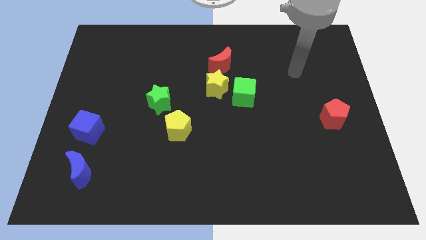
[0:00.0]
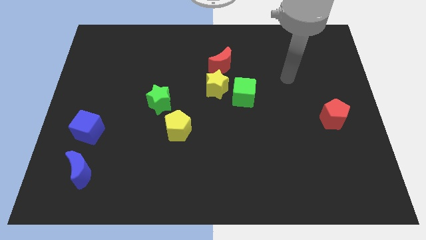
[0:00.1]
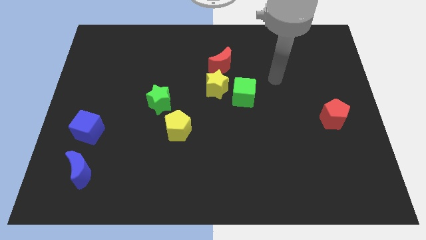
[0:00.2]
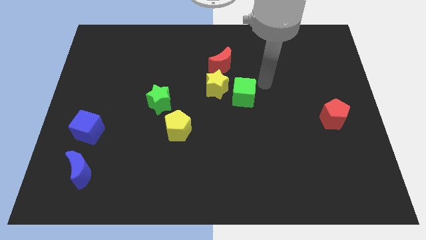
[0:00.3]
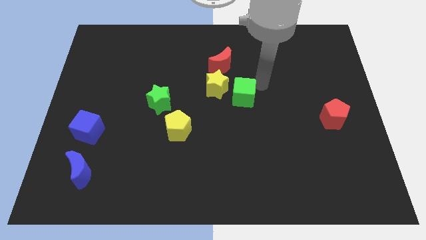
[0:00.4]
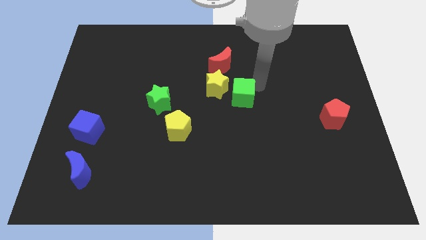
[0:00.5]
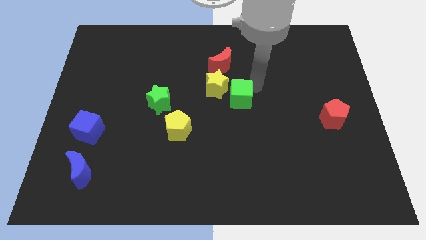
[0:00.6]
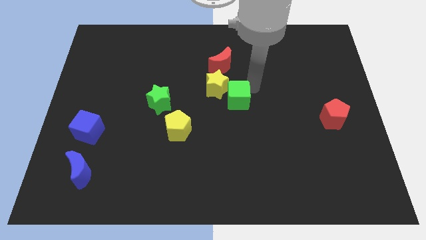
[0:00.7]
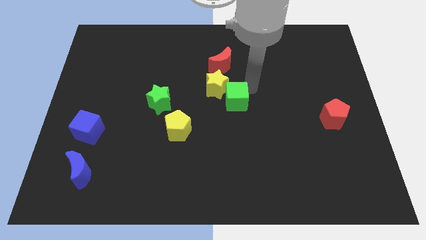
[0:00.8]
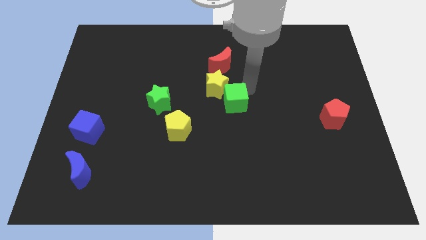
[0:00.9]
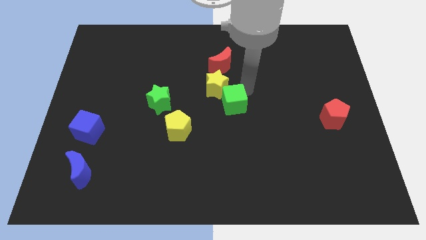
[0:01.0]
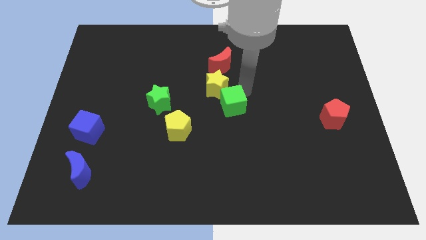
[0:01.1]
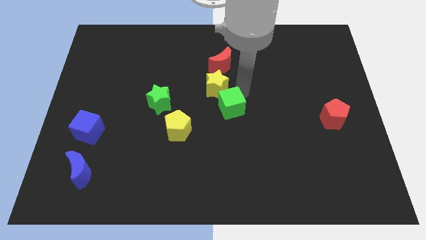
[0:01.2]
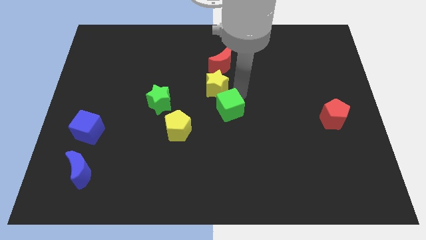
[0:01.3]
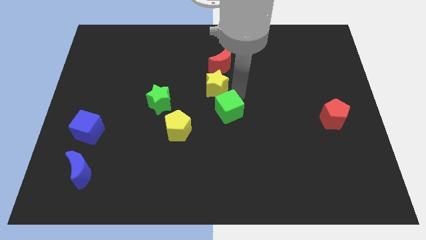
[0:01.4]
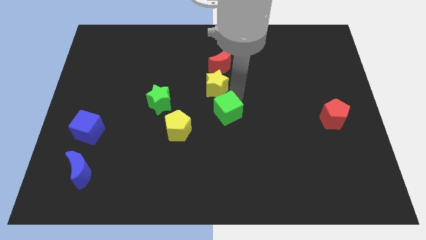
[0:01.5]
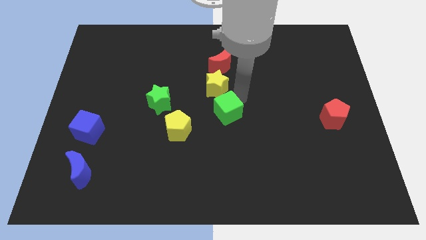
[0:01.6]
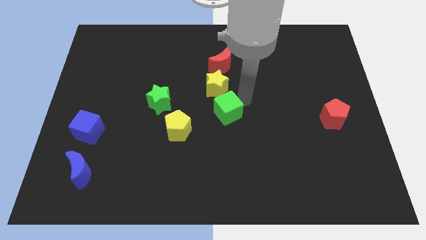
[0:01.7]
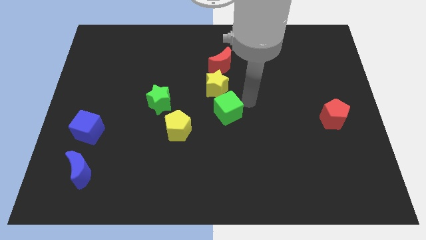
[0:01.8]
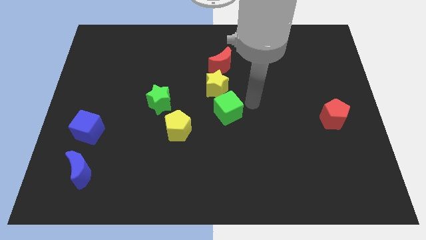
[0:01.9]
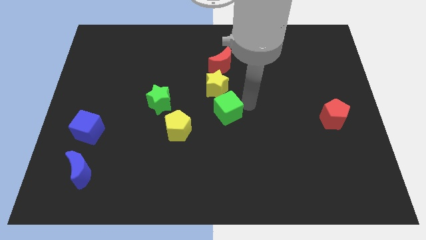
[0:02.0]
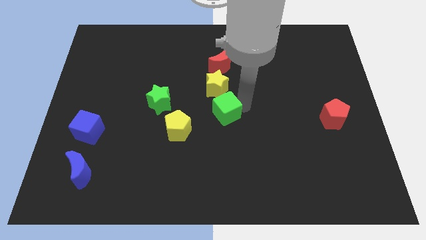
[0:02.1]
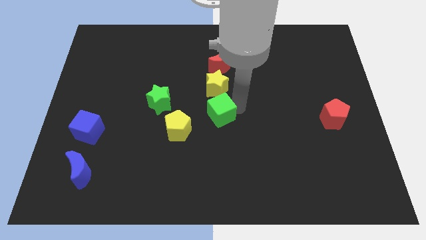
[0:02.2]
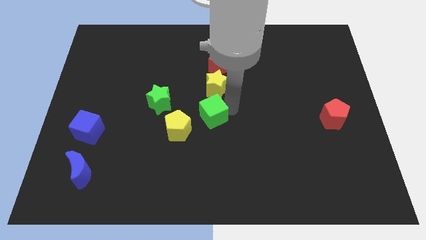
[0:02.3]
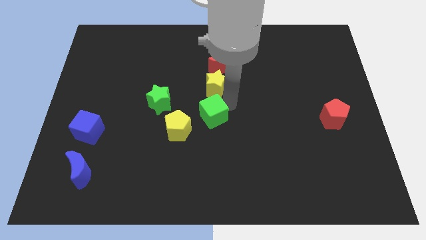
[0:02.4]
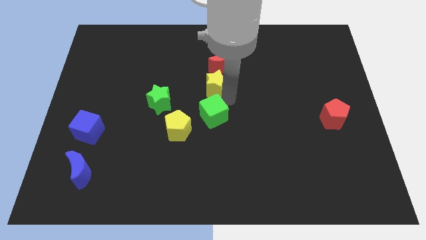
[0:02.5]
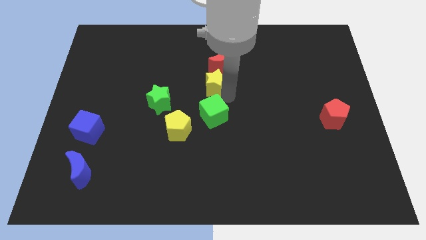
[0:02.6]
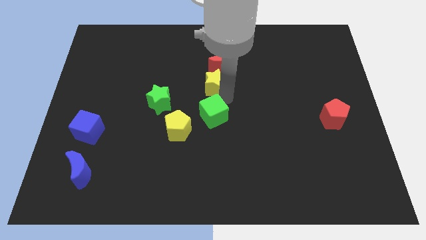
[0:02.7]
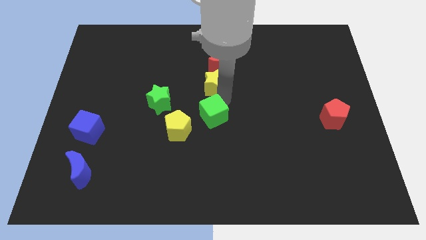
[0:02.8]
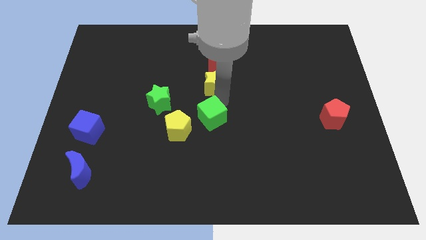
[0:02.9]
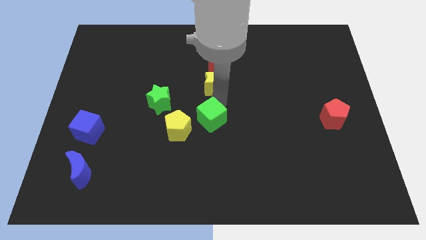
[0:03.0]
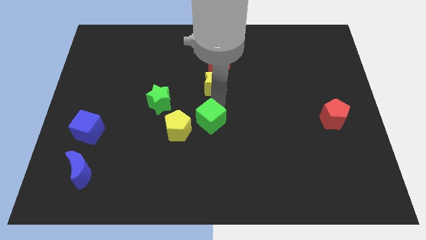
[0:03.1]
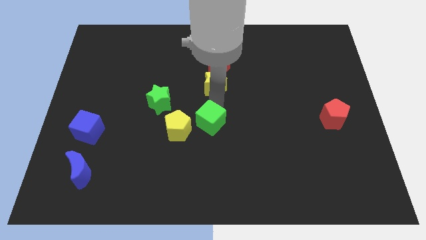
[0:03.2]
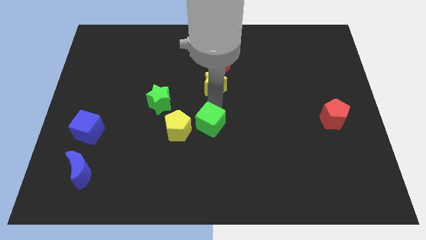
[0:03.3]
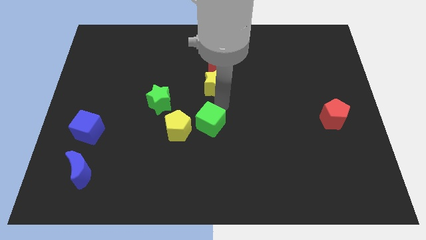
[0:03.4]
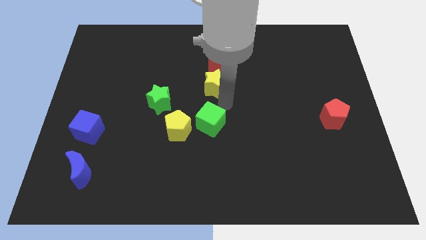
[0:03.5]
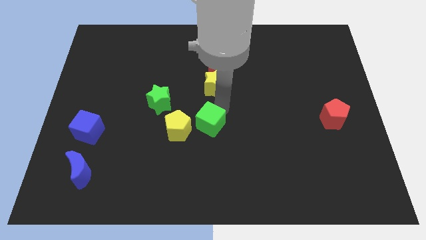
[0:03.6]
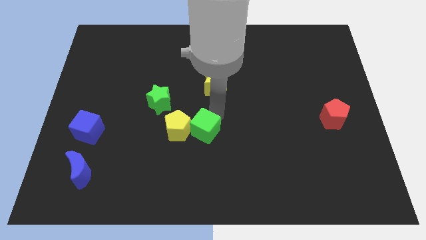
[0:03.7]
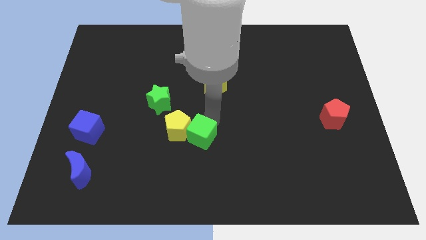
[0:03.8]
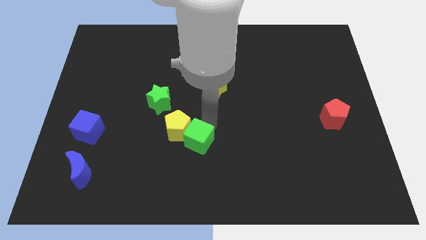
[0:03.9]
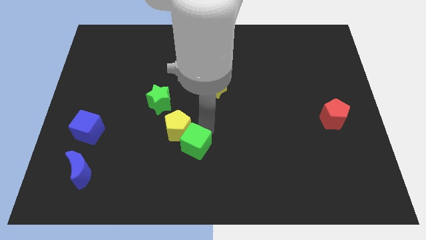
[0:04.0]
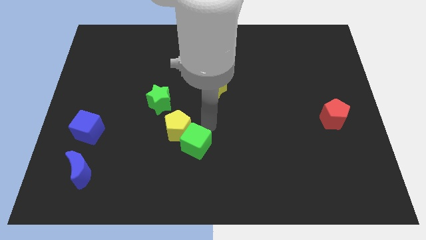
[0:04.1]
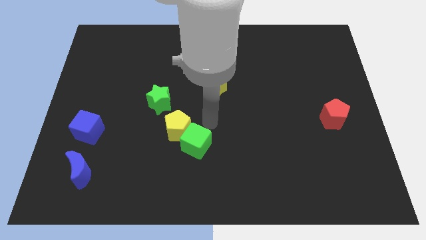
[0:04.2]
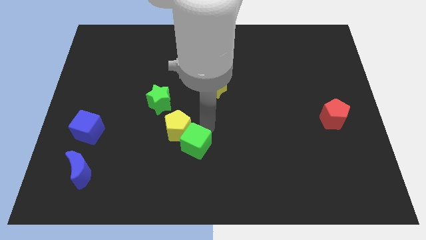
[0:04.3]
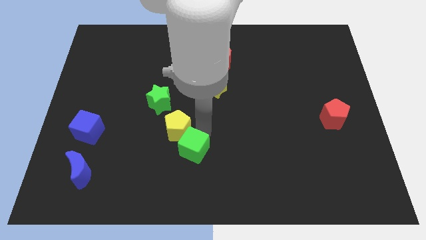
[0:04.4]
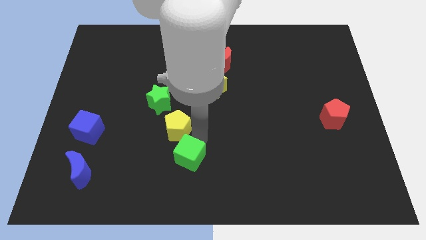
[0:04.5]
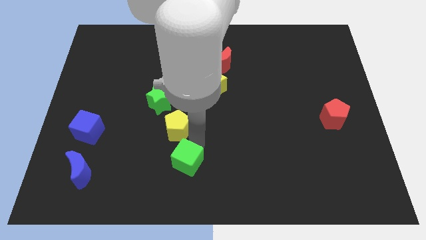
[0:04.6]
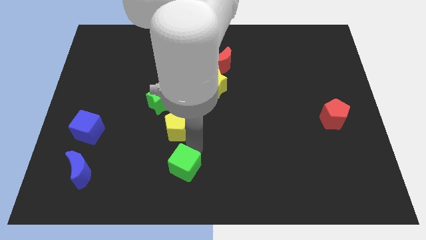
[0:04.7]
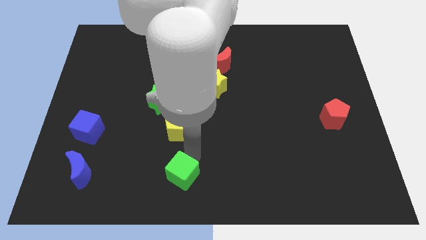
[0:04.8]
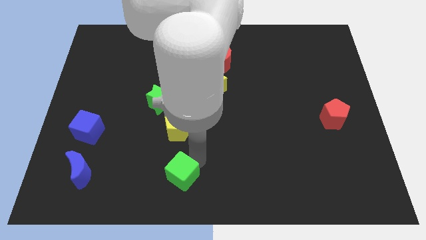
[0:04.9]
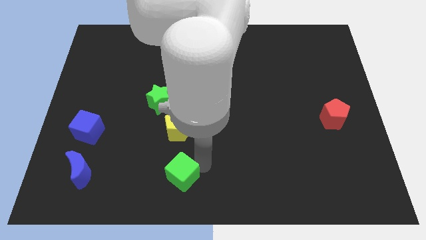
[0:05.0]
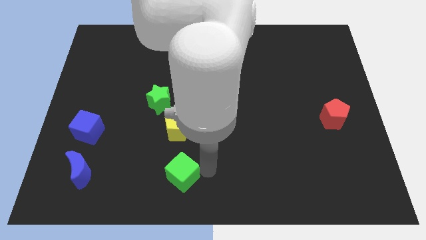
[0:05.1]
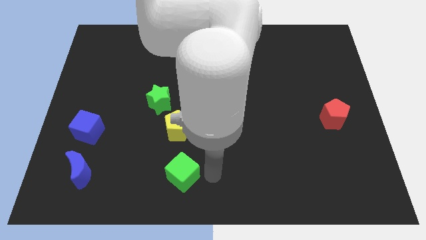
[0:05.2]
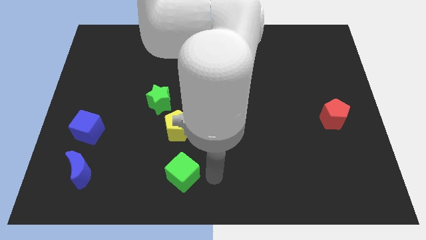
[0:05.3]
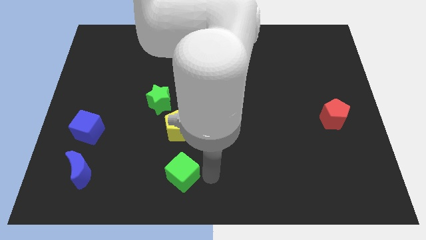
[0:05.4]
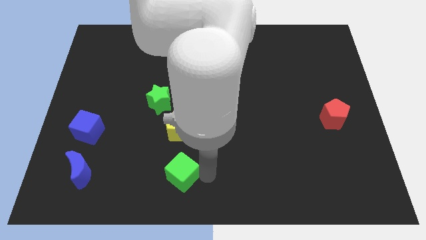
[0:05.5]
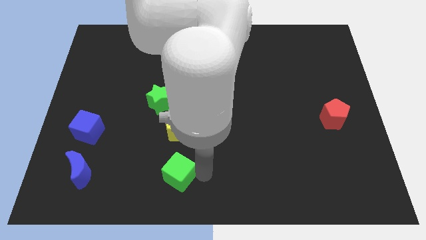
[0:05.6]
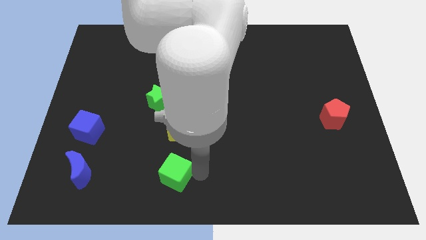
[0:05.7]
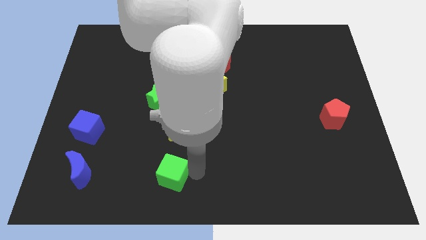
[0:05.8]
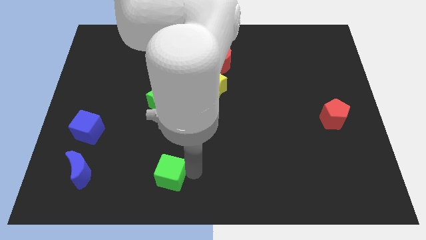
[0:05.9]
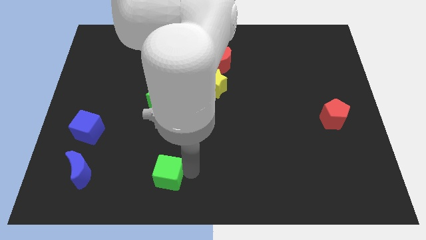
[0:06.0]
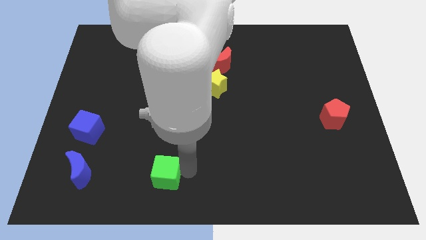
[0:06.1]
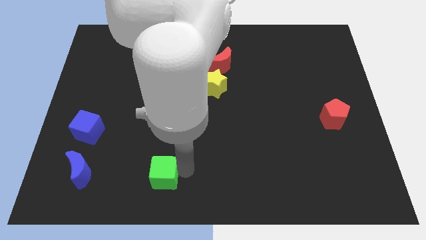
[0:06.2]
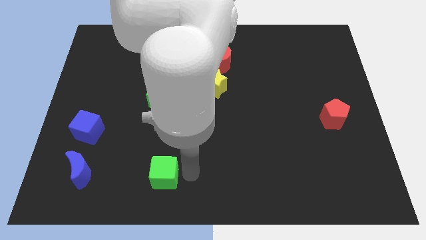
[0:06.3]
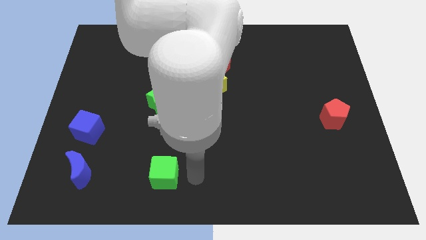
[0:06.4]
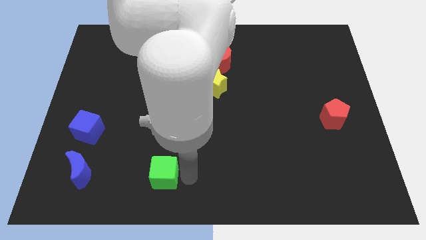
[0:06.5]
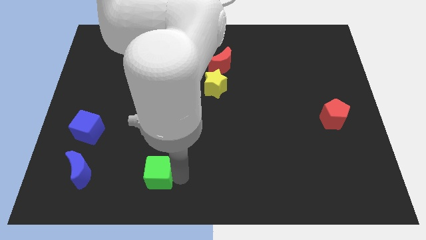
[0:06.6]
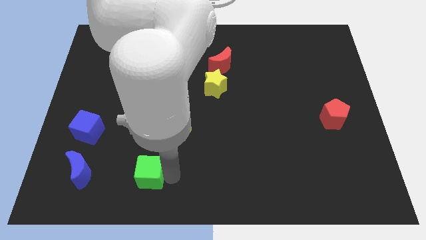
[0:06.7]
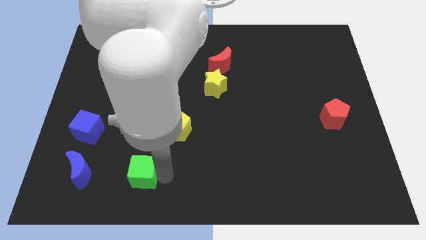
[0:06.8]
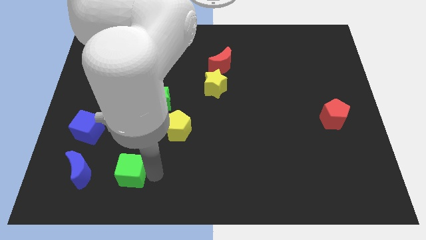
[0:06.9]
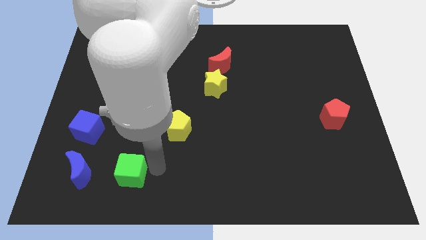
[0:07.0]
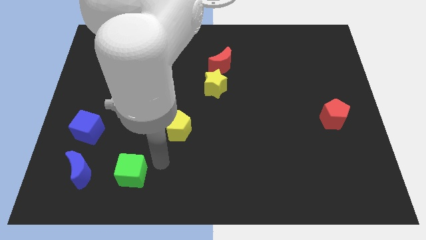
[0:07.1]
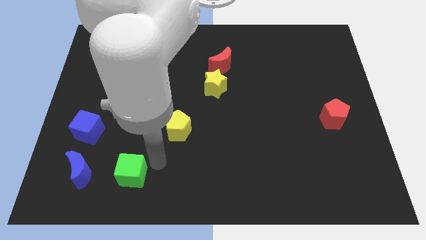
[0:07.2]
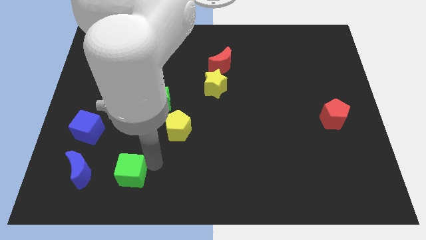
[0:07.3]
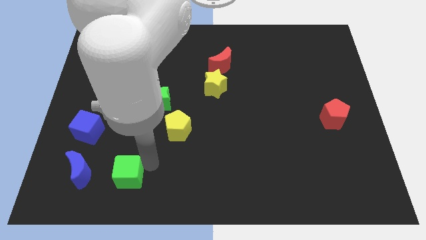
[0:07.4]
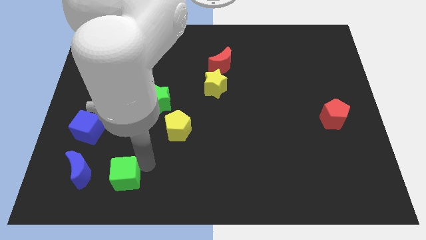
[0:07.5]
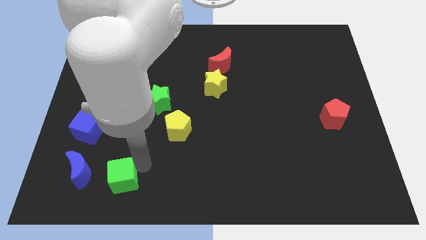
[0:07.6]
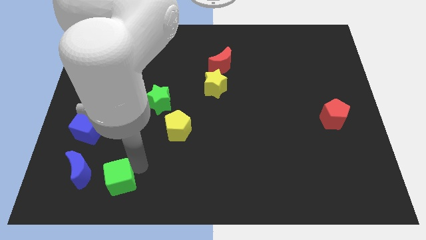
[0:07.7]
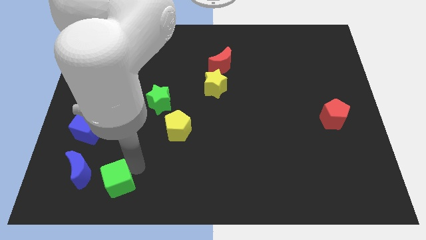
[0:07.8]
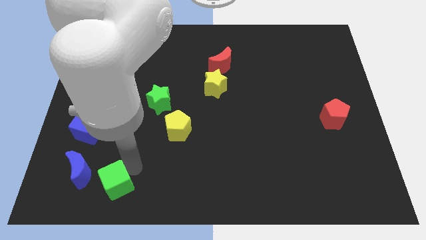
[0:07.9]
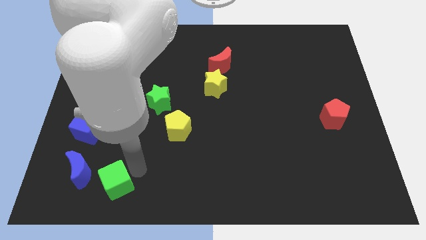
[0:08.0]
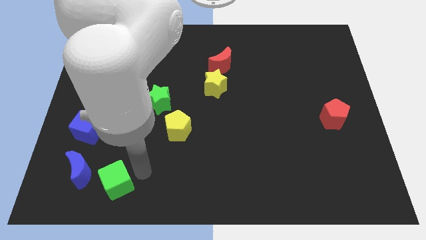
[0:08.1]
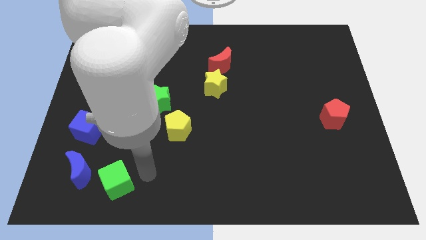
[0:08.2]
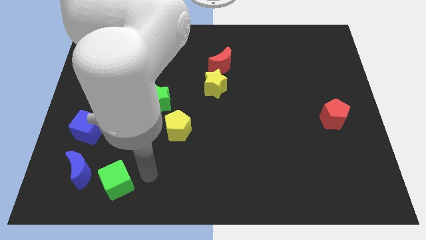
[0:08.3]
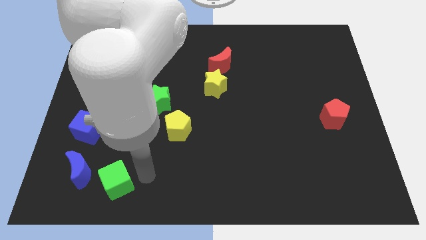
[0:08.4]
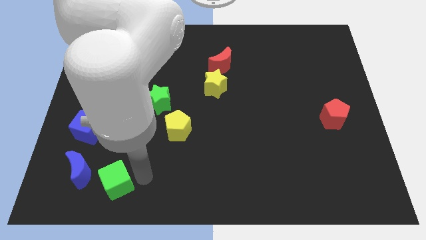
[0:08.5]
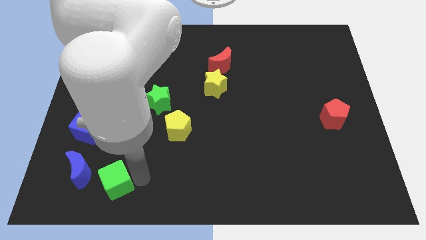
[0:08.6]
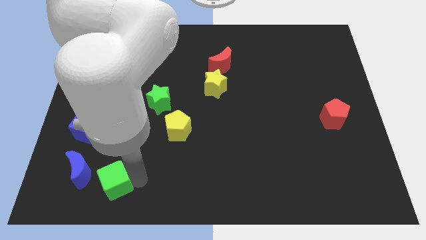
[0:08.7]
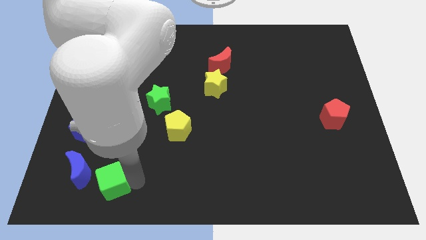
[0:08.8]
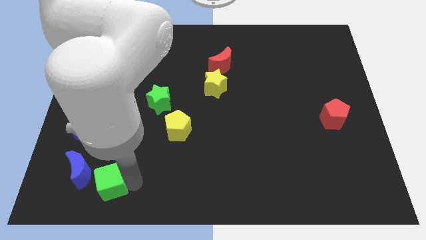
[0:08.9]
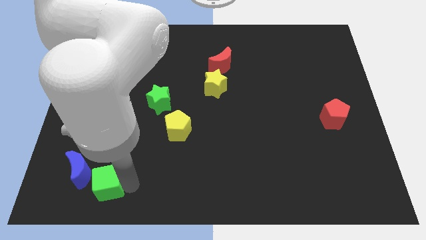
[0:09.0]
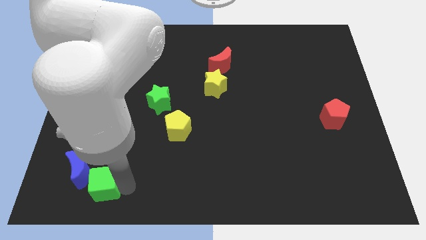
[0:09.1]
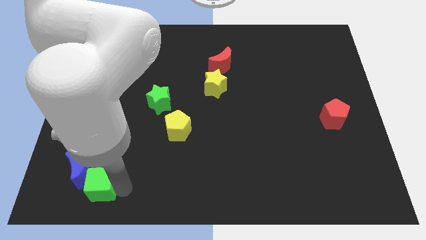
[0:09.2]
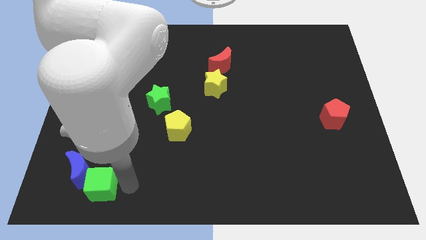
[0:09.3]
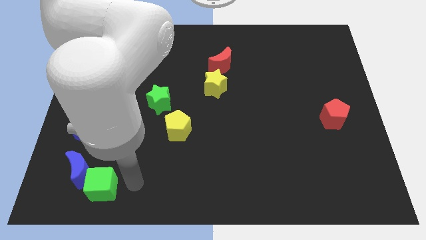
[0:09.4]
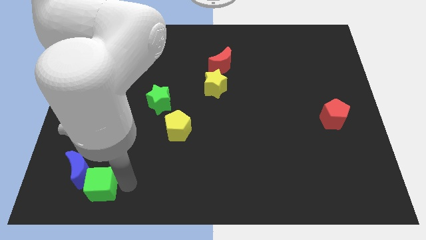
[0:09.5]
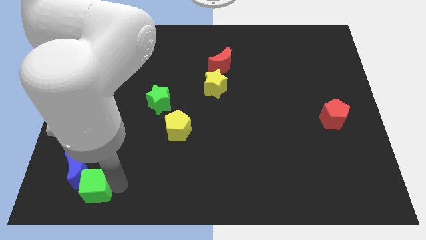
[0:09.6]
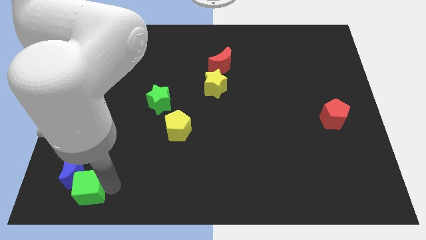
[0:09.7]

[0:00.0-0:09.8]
push the green cube to the bottom of the blue cube
